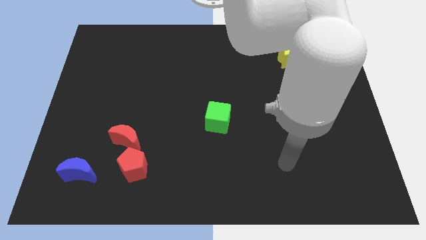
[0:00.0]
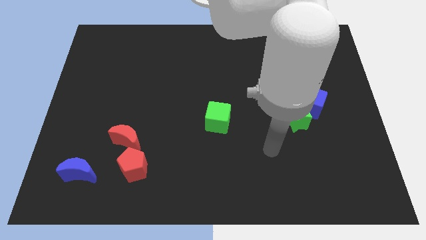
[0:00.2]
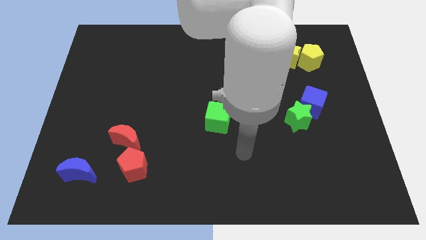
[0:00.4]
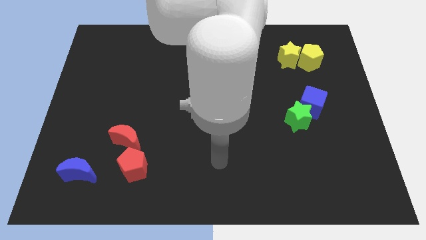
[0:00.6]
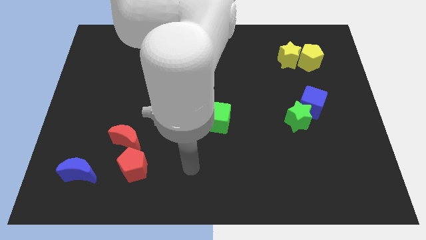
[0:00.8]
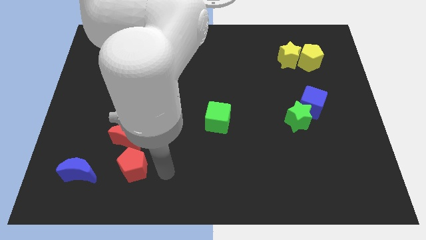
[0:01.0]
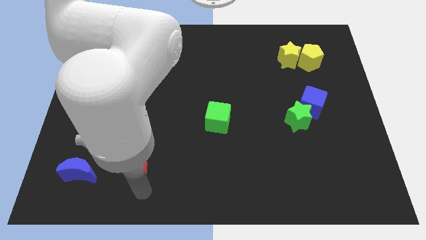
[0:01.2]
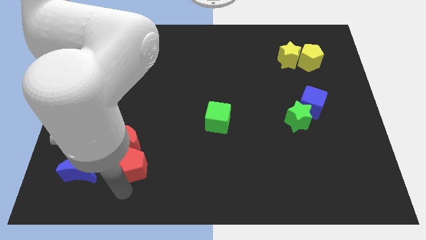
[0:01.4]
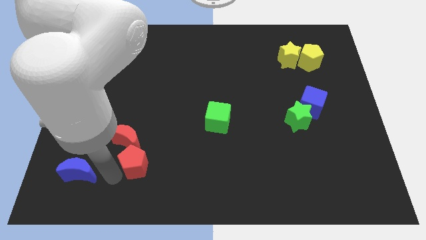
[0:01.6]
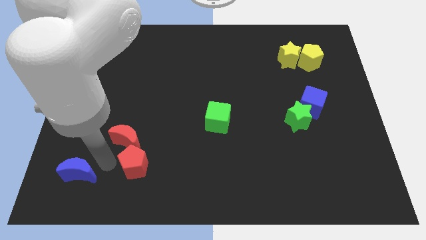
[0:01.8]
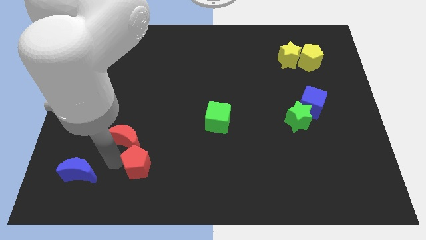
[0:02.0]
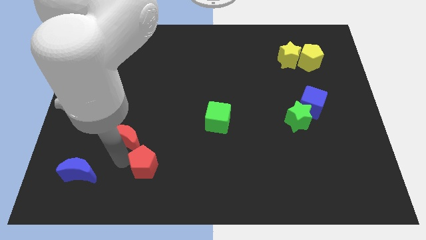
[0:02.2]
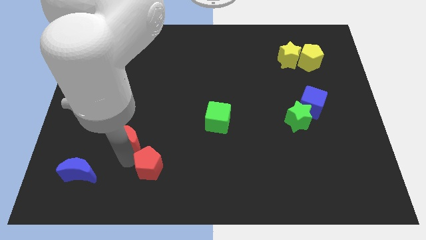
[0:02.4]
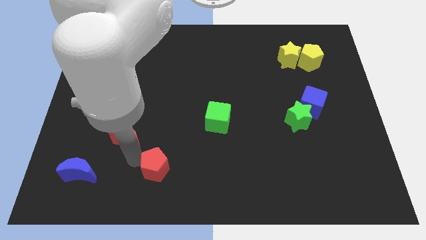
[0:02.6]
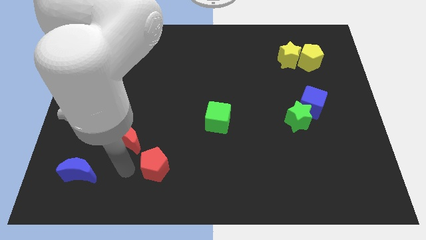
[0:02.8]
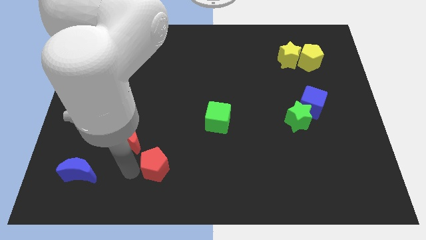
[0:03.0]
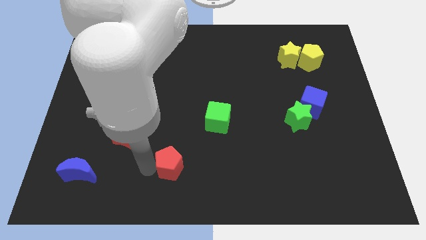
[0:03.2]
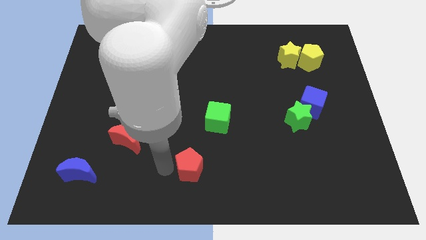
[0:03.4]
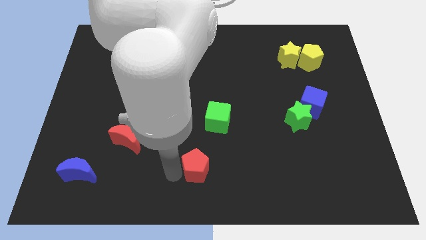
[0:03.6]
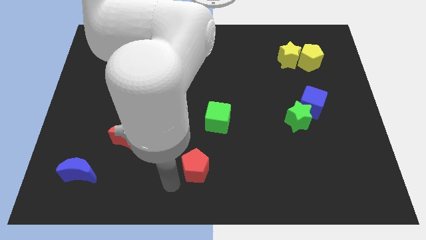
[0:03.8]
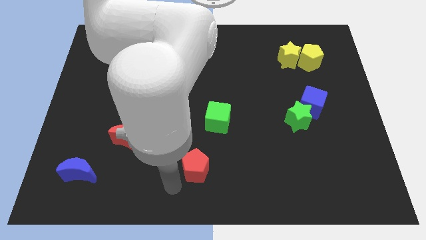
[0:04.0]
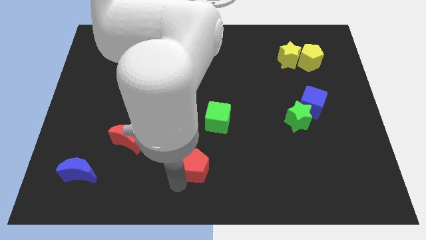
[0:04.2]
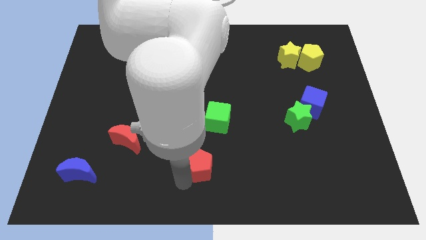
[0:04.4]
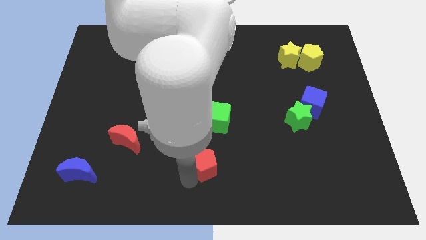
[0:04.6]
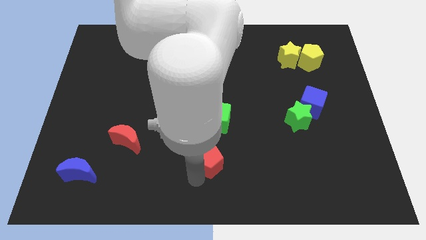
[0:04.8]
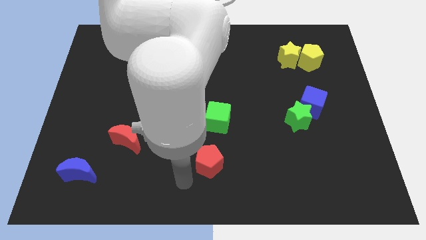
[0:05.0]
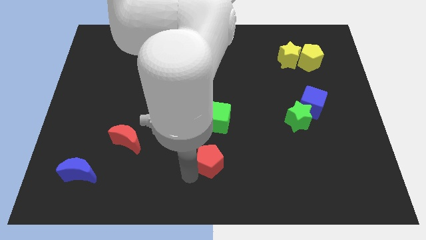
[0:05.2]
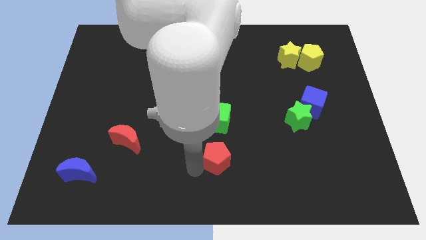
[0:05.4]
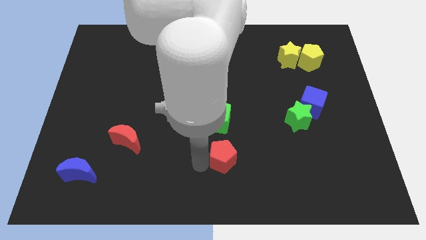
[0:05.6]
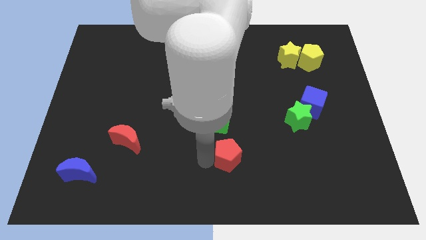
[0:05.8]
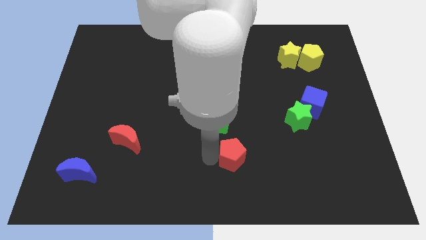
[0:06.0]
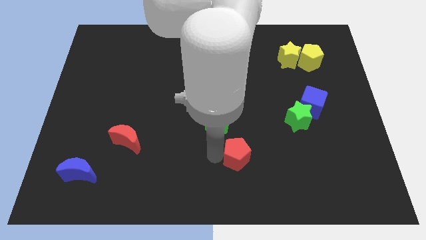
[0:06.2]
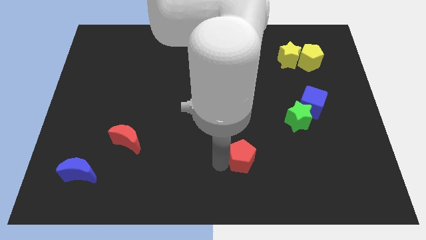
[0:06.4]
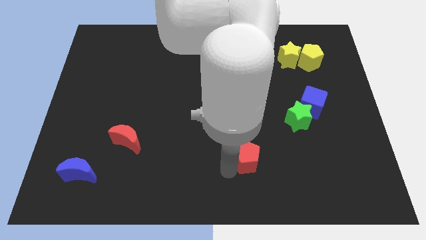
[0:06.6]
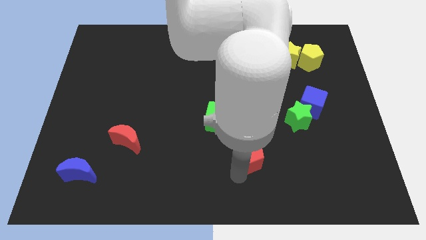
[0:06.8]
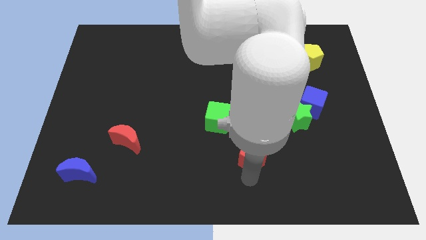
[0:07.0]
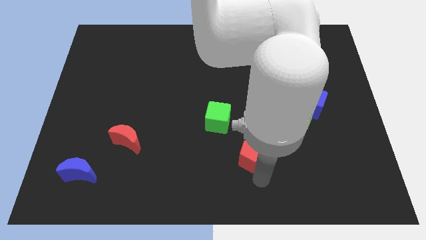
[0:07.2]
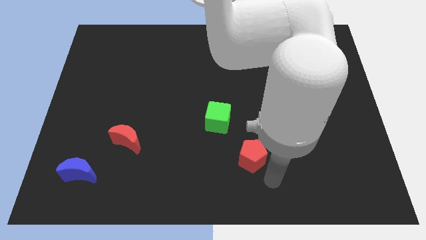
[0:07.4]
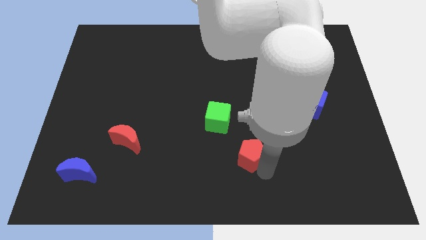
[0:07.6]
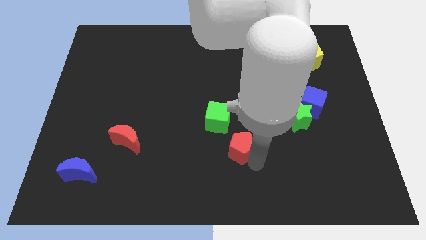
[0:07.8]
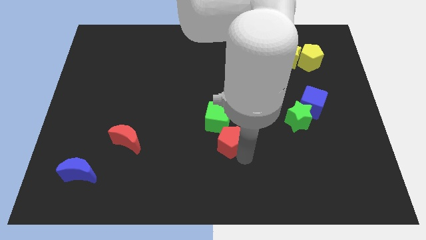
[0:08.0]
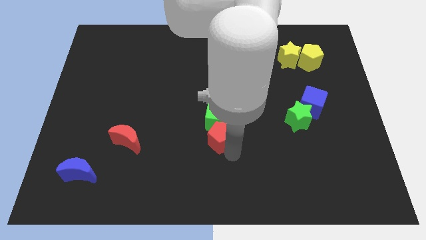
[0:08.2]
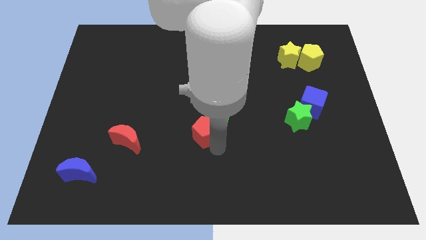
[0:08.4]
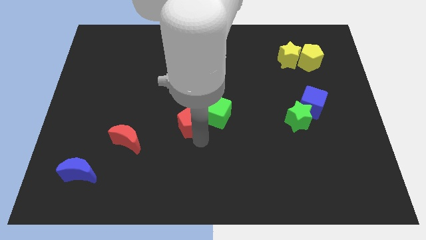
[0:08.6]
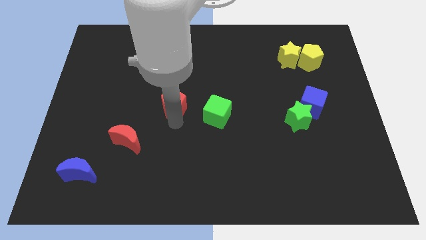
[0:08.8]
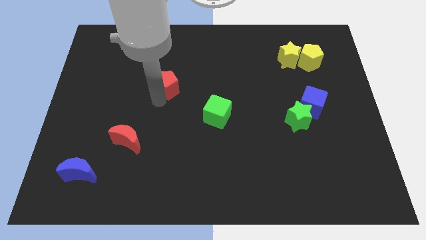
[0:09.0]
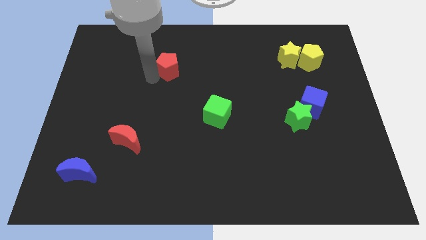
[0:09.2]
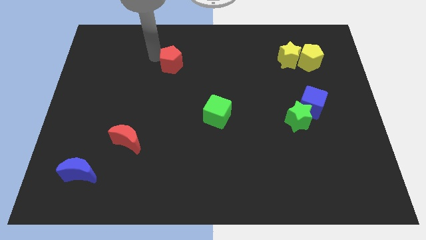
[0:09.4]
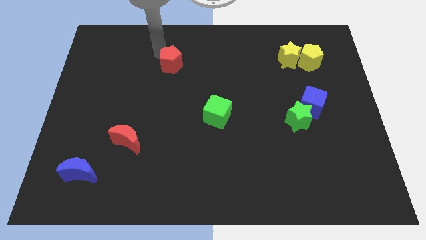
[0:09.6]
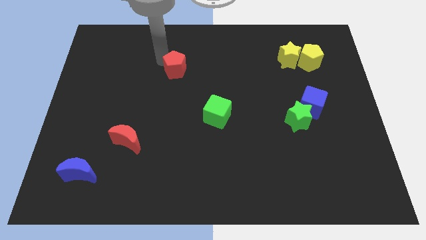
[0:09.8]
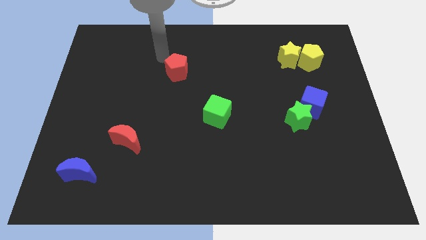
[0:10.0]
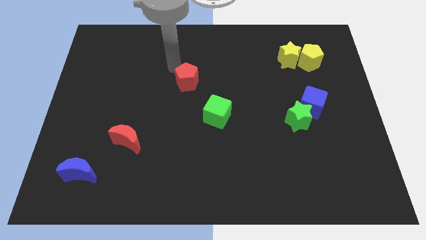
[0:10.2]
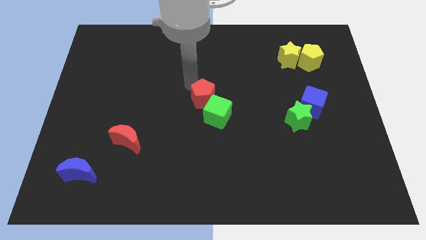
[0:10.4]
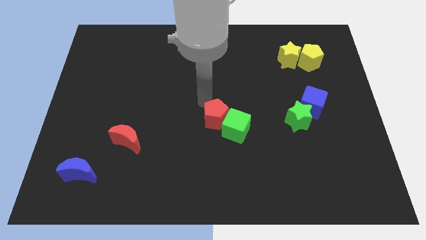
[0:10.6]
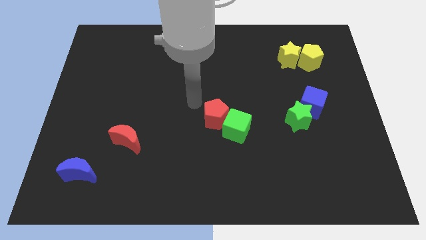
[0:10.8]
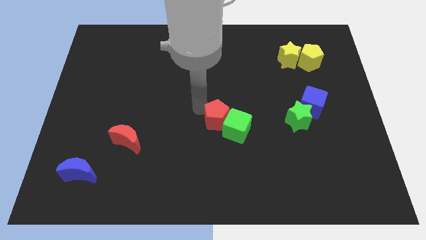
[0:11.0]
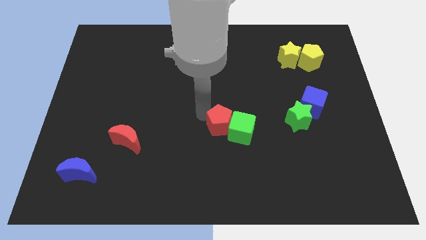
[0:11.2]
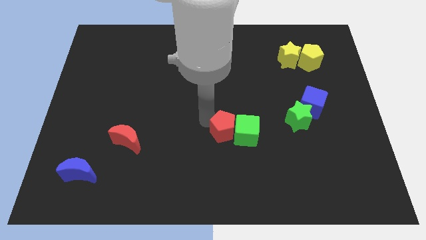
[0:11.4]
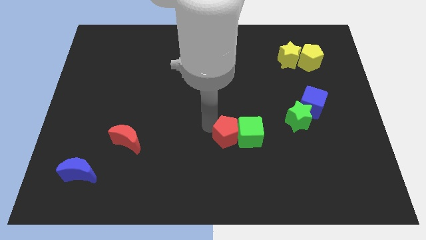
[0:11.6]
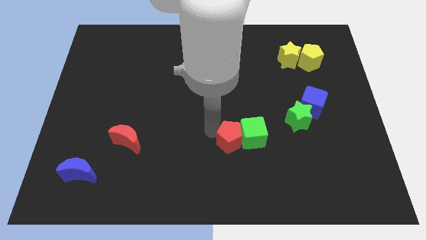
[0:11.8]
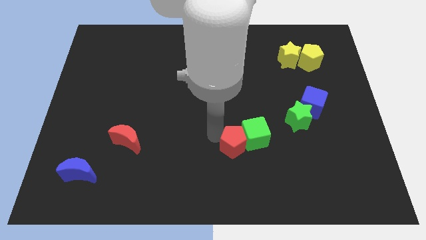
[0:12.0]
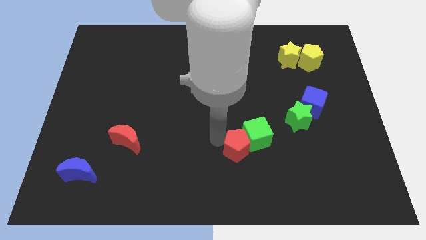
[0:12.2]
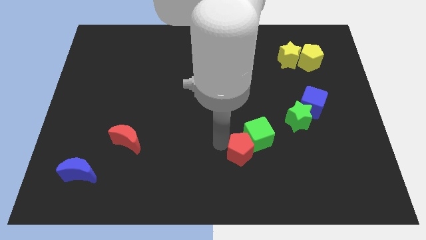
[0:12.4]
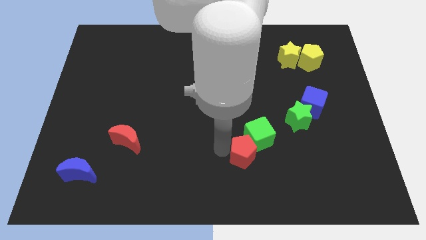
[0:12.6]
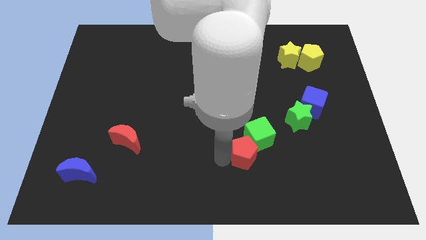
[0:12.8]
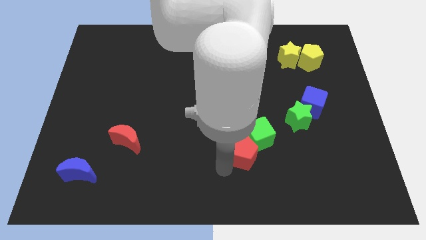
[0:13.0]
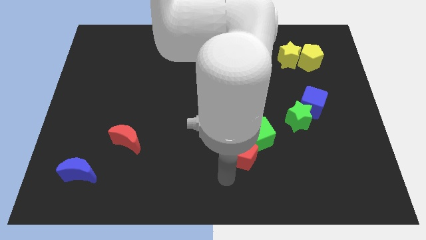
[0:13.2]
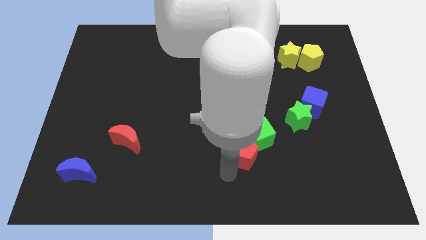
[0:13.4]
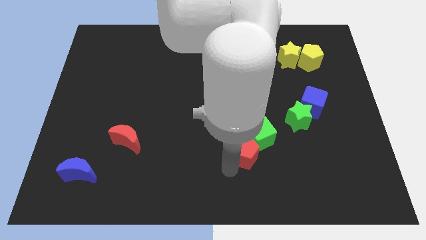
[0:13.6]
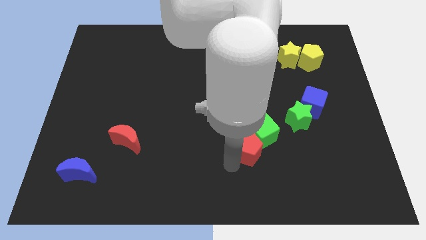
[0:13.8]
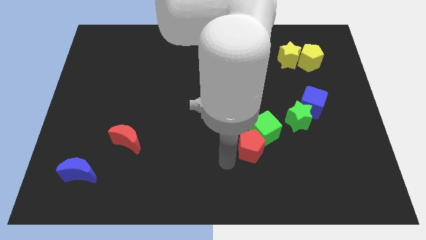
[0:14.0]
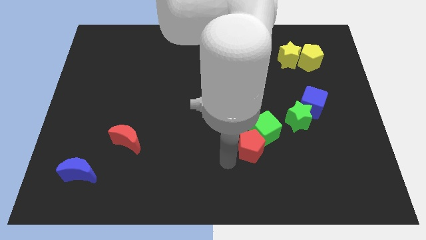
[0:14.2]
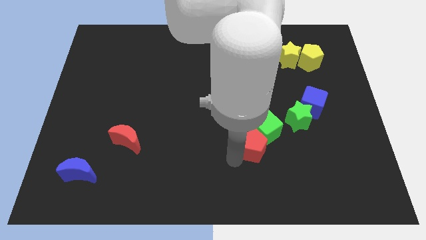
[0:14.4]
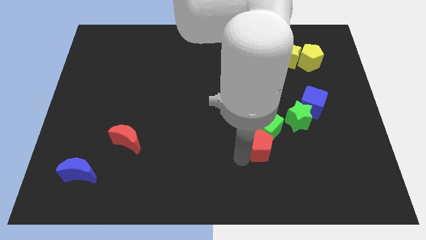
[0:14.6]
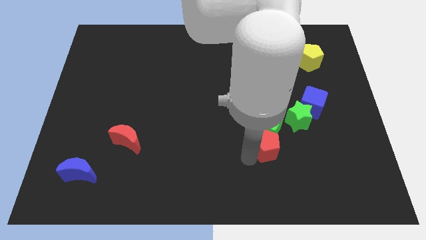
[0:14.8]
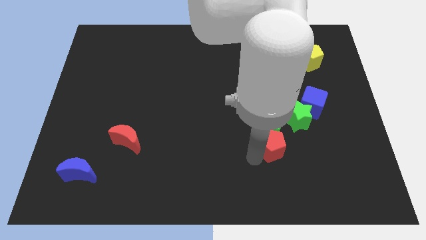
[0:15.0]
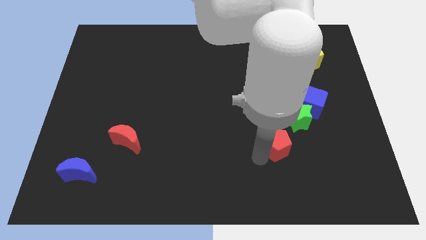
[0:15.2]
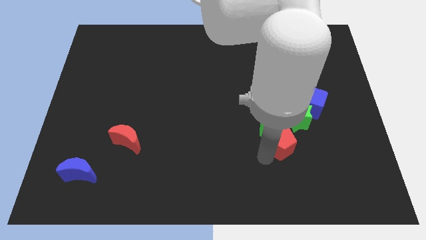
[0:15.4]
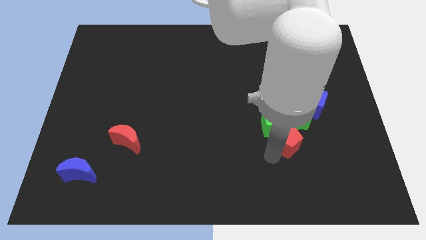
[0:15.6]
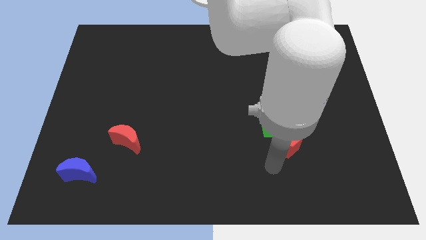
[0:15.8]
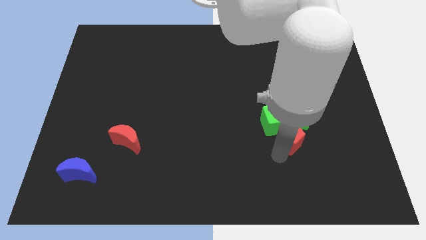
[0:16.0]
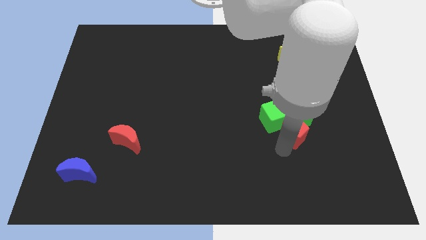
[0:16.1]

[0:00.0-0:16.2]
put the red pentagon next to the green star
